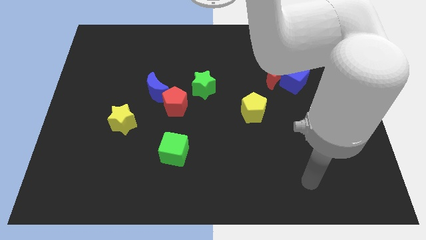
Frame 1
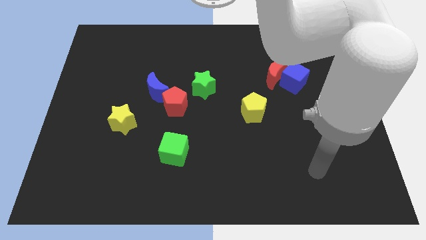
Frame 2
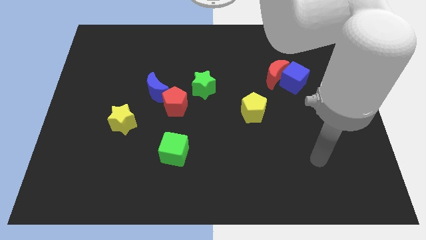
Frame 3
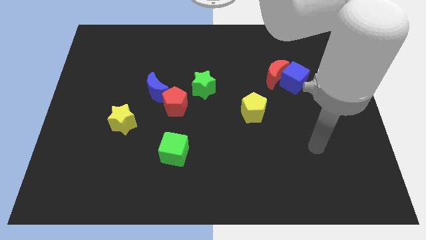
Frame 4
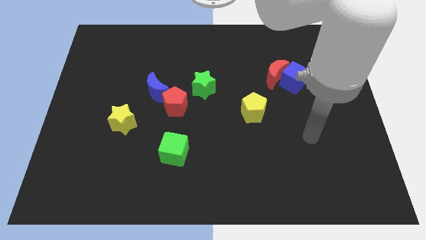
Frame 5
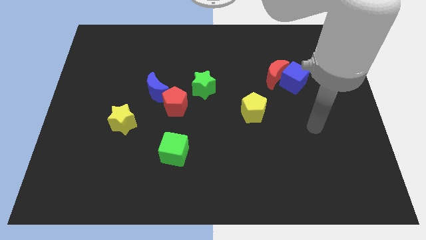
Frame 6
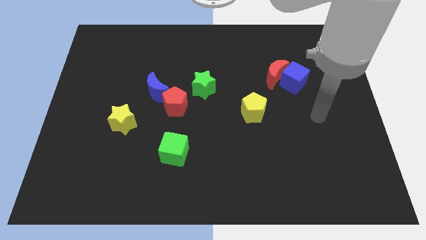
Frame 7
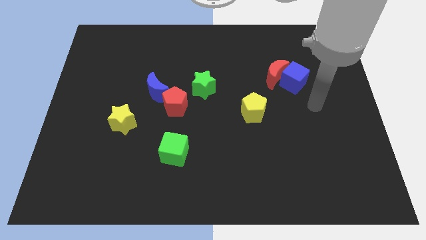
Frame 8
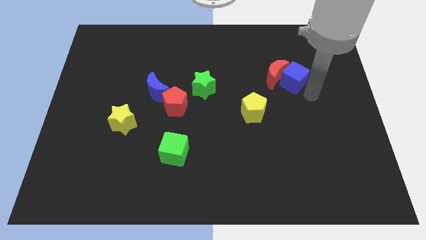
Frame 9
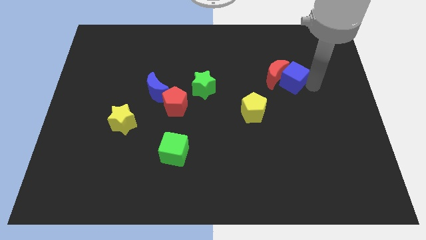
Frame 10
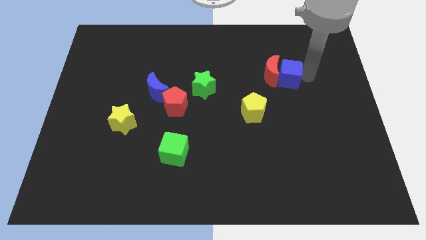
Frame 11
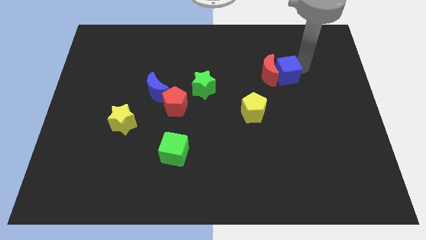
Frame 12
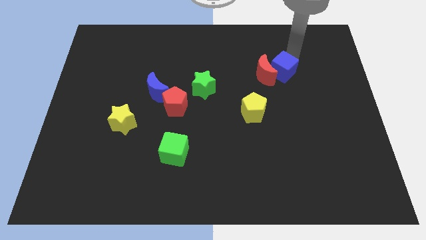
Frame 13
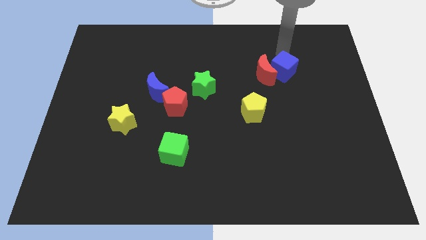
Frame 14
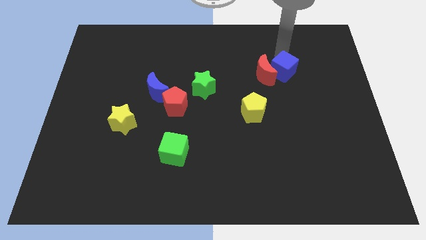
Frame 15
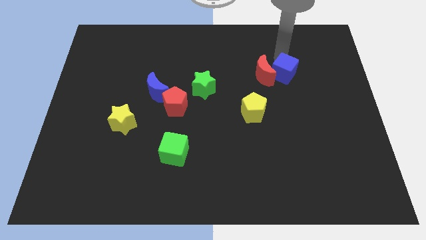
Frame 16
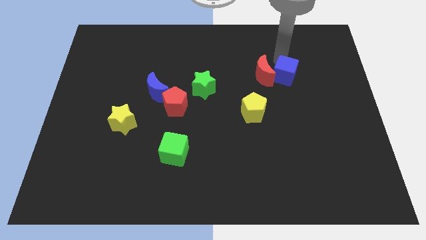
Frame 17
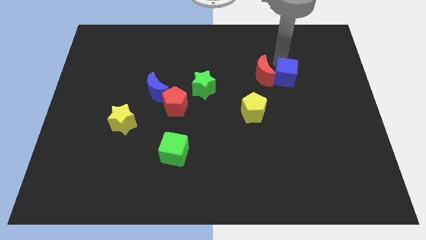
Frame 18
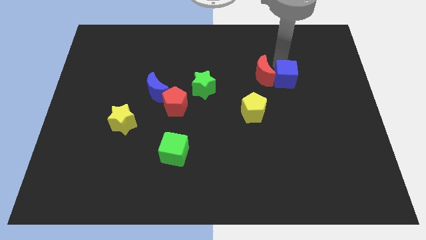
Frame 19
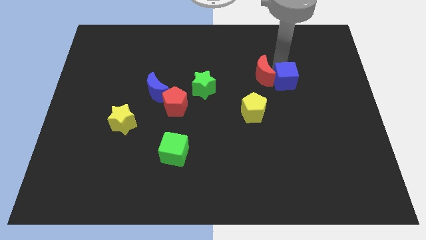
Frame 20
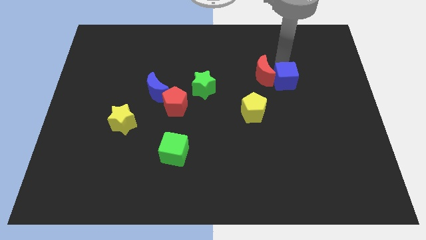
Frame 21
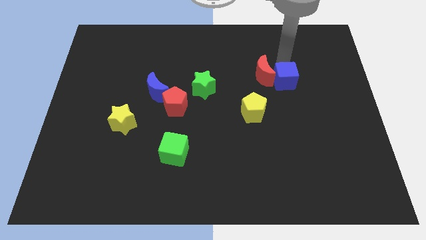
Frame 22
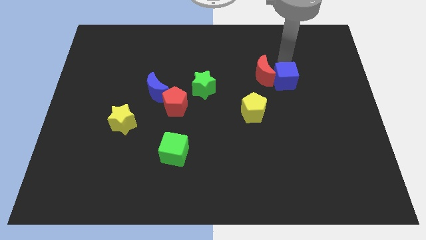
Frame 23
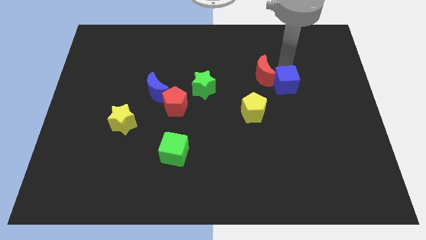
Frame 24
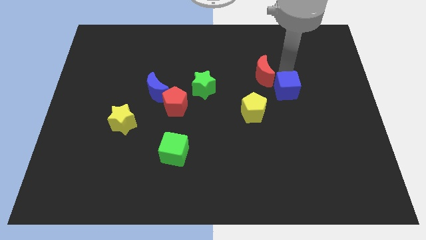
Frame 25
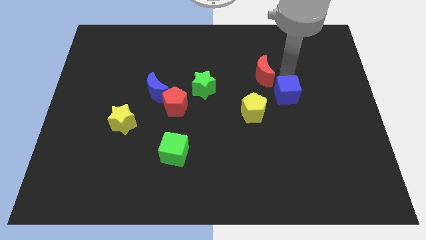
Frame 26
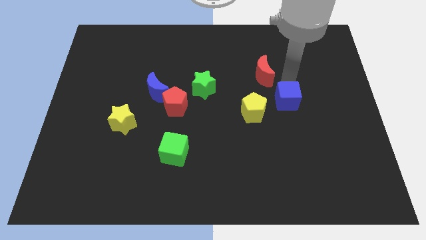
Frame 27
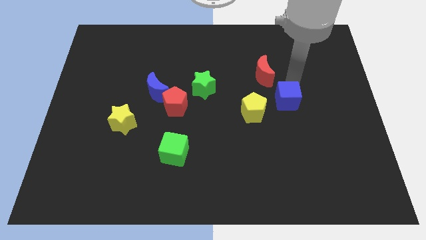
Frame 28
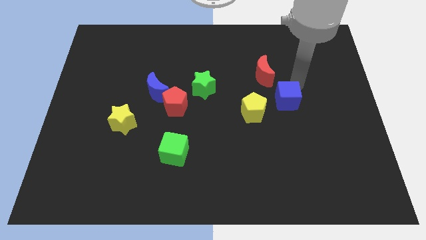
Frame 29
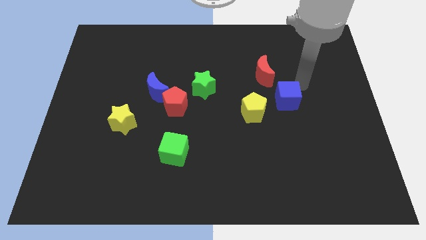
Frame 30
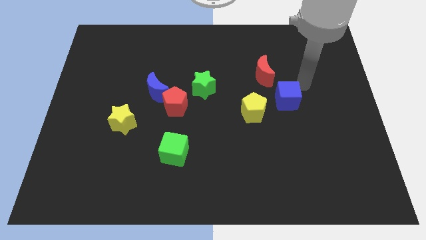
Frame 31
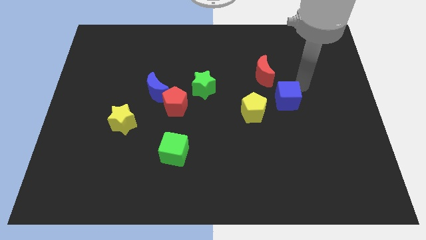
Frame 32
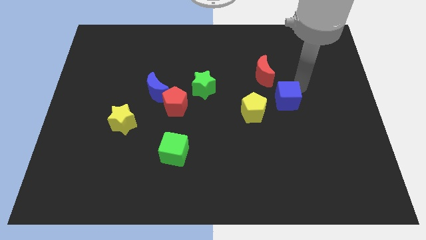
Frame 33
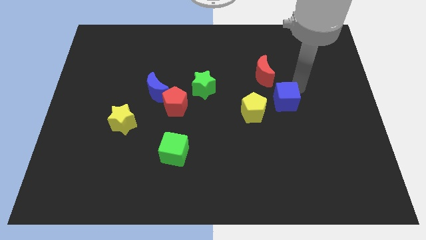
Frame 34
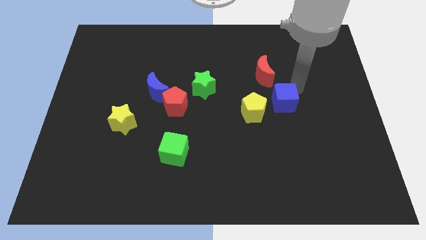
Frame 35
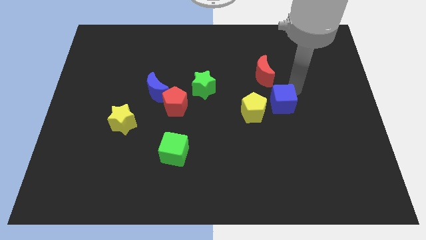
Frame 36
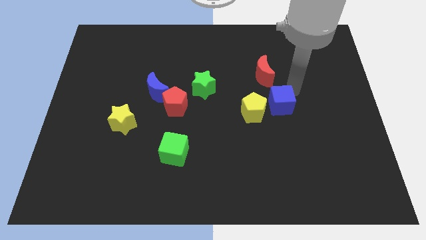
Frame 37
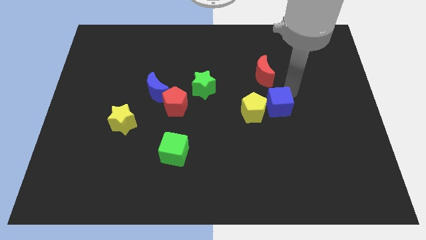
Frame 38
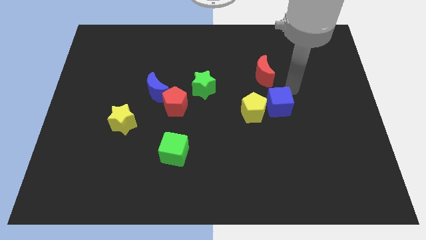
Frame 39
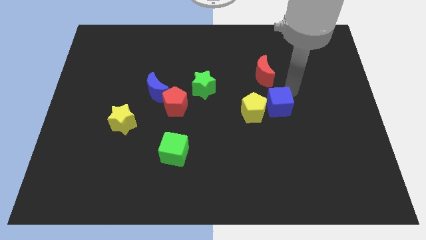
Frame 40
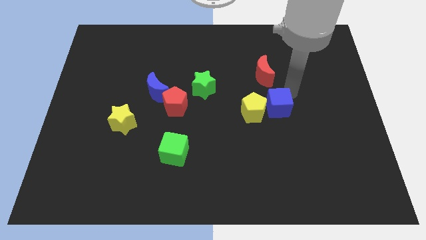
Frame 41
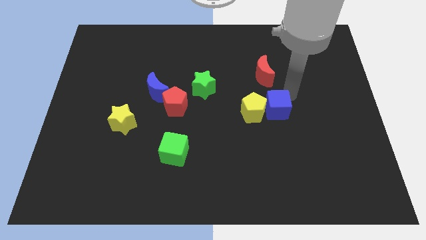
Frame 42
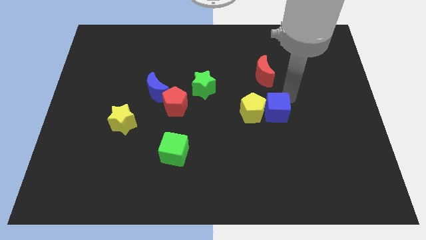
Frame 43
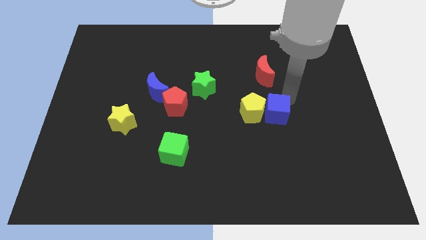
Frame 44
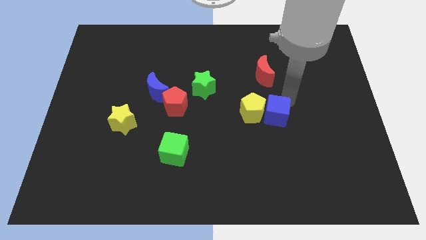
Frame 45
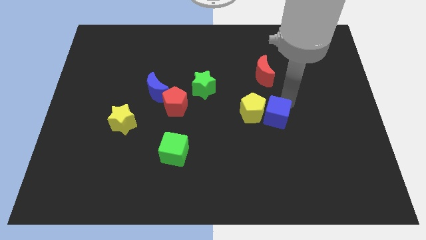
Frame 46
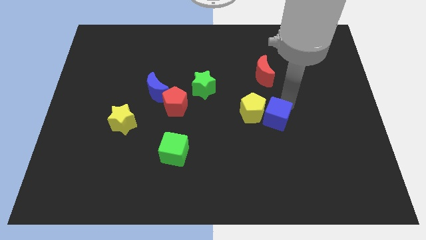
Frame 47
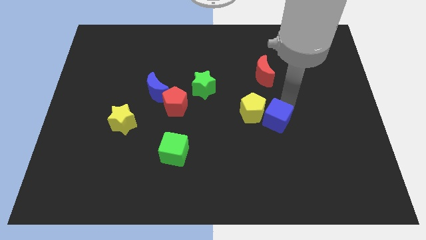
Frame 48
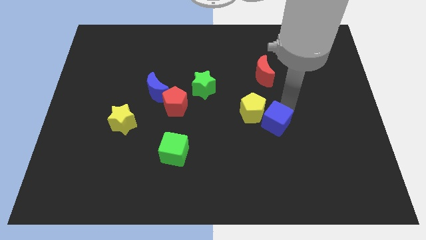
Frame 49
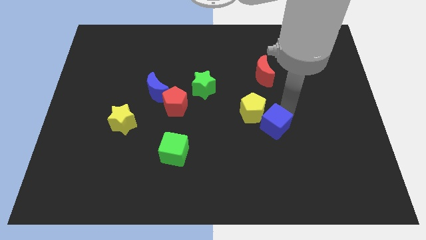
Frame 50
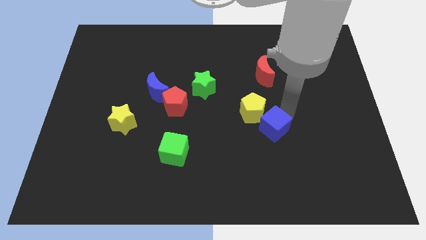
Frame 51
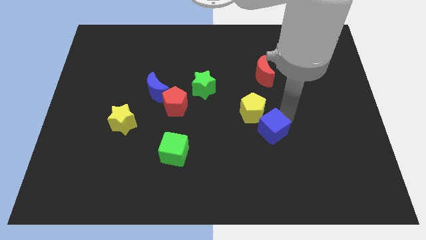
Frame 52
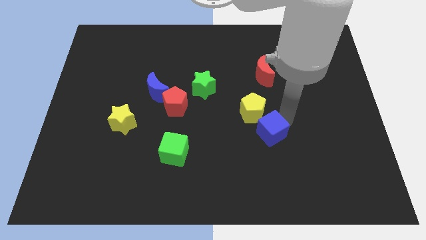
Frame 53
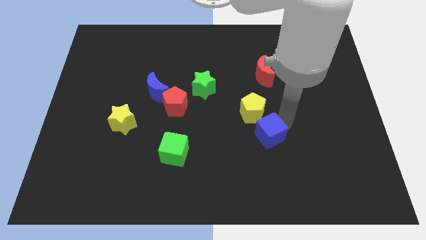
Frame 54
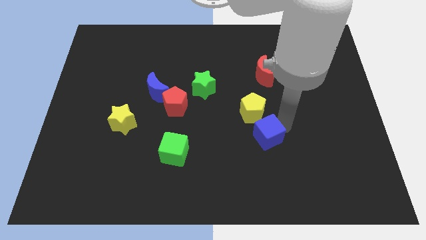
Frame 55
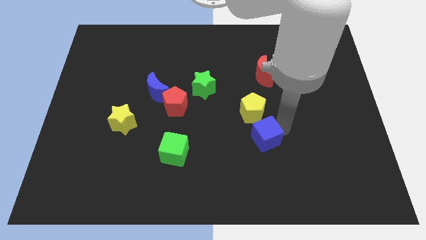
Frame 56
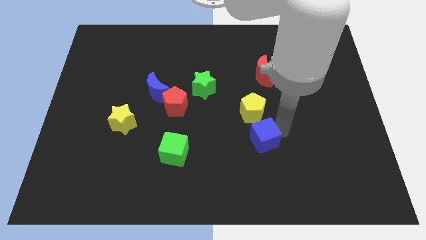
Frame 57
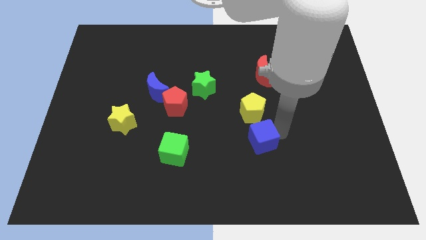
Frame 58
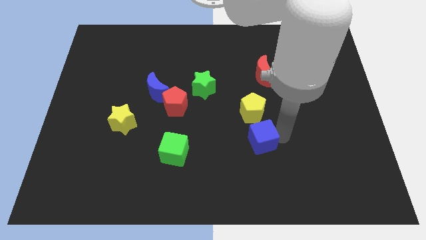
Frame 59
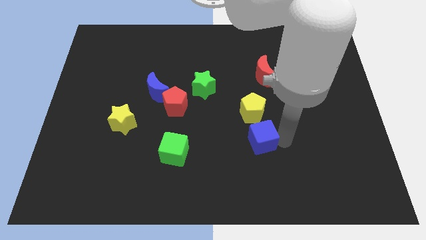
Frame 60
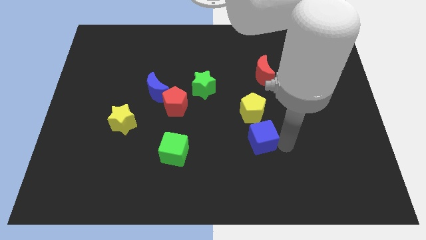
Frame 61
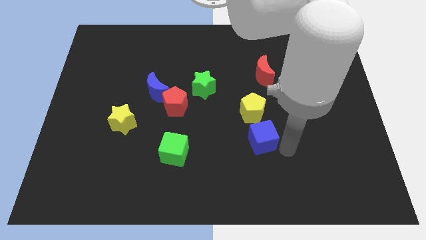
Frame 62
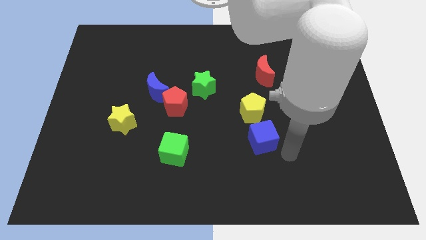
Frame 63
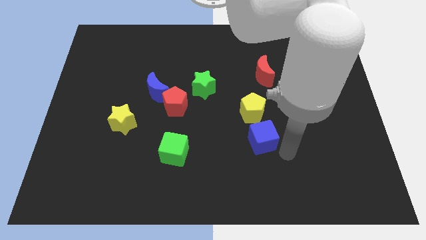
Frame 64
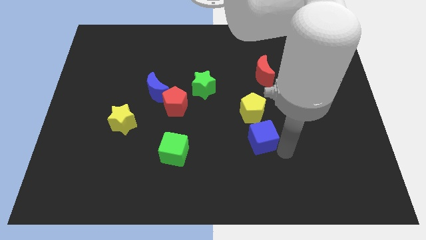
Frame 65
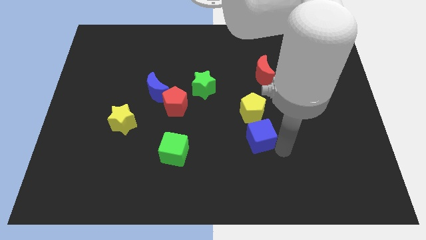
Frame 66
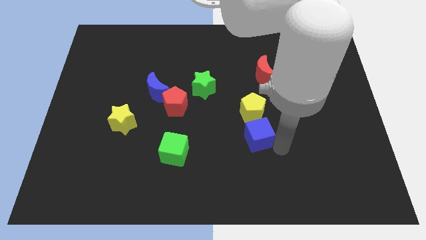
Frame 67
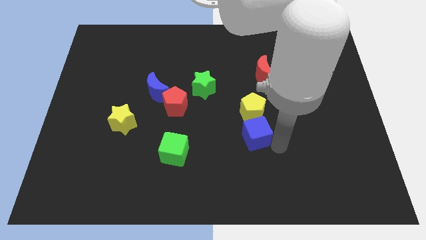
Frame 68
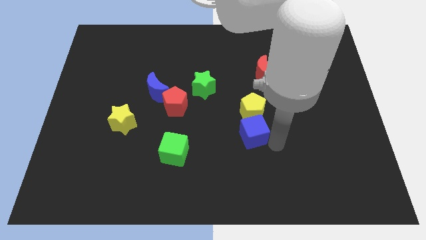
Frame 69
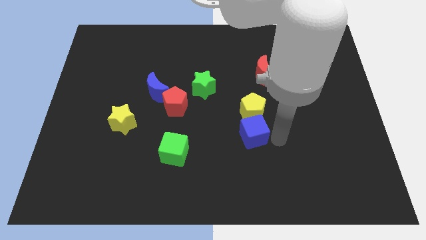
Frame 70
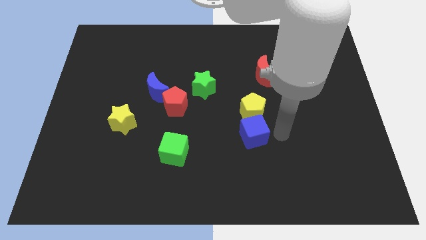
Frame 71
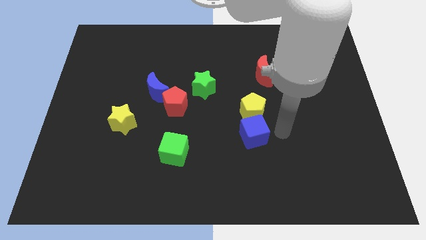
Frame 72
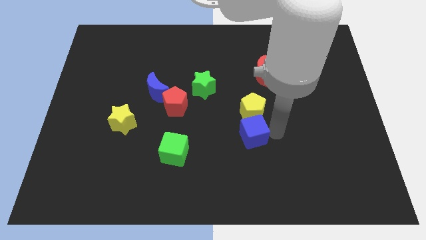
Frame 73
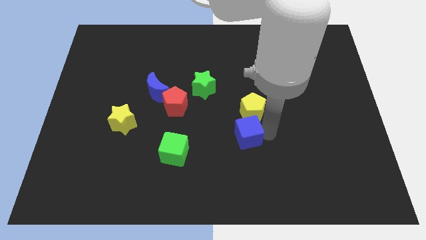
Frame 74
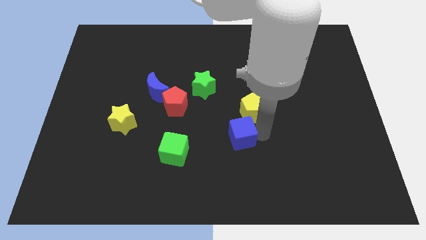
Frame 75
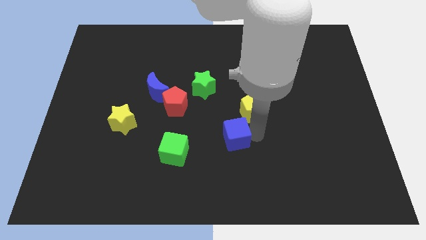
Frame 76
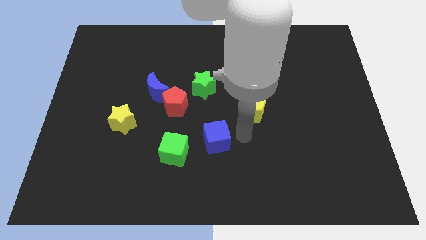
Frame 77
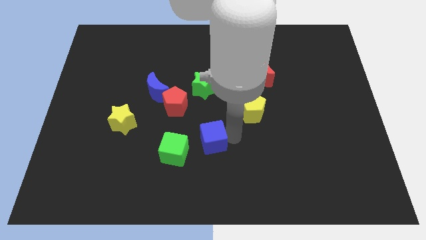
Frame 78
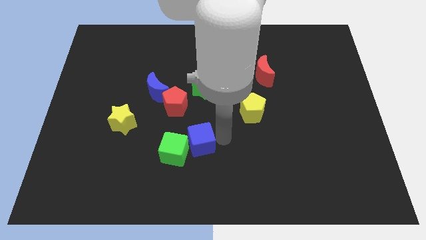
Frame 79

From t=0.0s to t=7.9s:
push the blue cube towards the green cube
